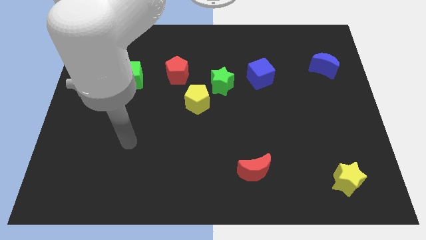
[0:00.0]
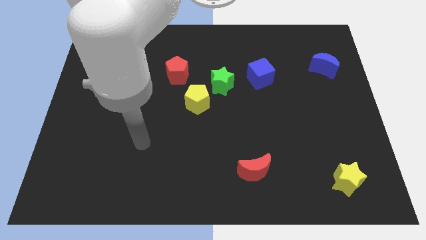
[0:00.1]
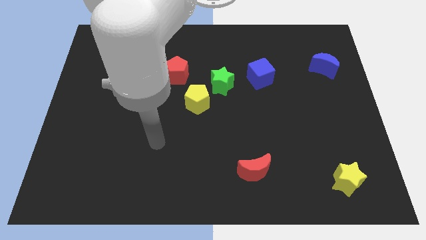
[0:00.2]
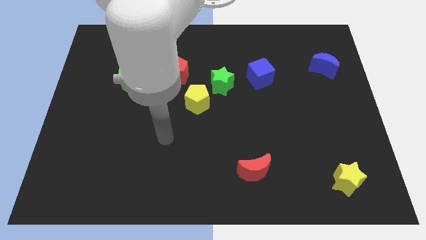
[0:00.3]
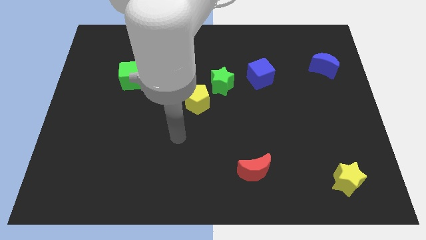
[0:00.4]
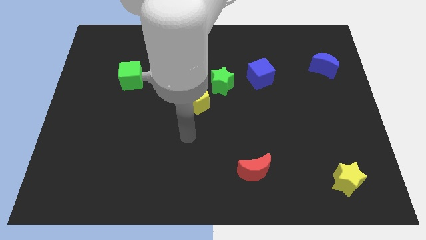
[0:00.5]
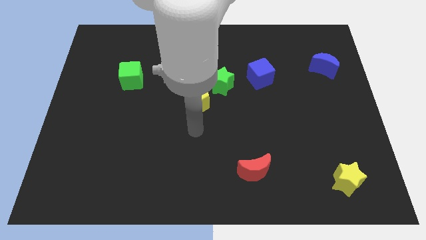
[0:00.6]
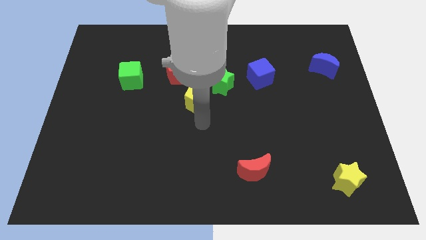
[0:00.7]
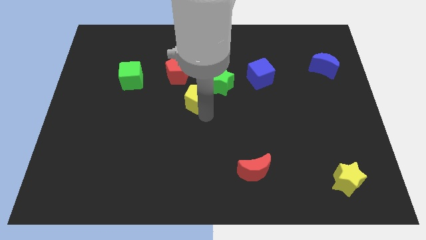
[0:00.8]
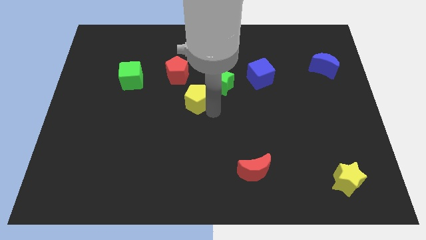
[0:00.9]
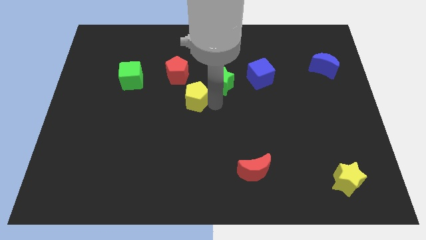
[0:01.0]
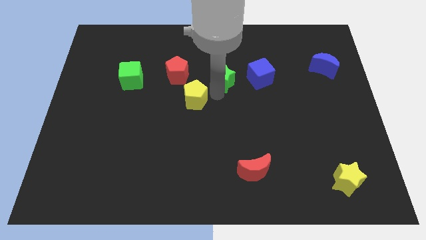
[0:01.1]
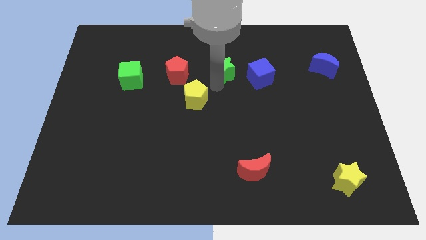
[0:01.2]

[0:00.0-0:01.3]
move the yellow pentagon away from the green star

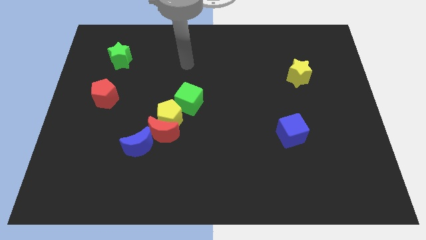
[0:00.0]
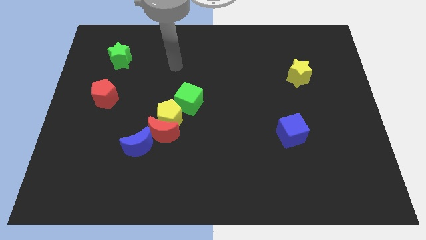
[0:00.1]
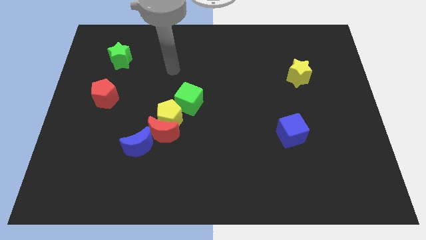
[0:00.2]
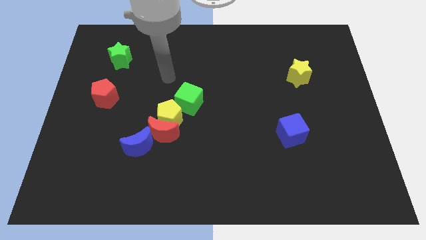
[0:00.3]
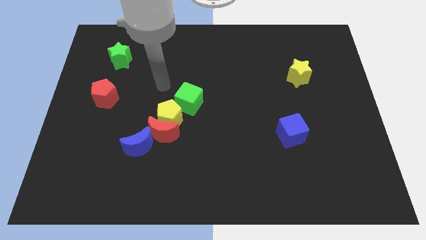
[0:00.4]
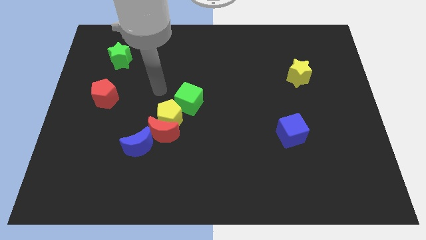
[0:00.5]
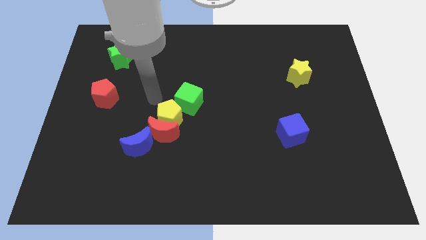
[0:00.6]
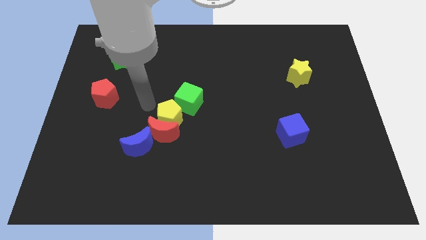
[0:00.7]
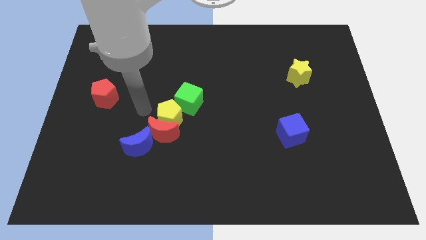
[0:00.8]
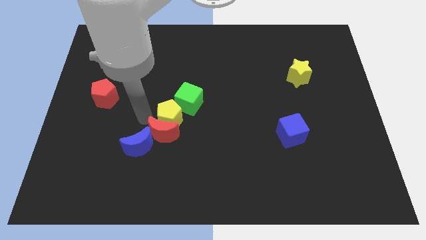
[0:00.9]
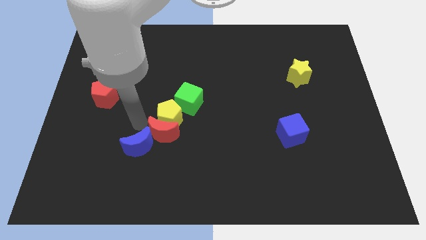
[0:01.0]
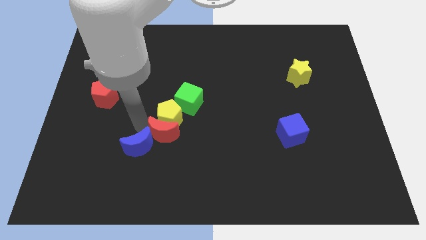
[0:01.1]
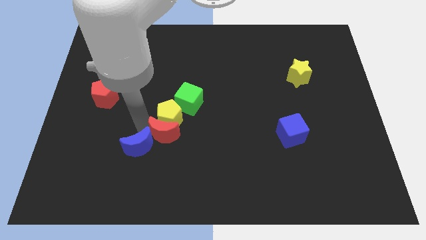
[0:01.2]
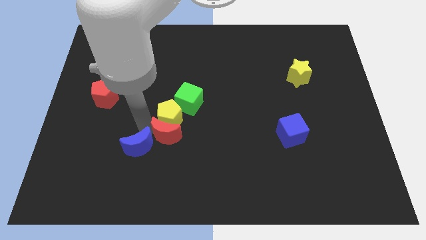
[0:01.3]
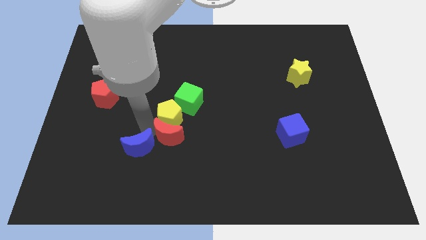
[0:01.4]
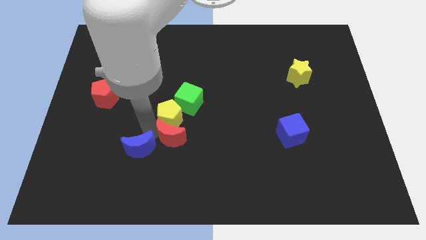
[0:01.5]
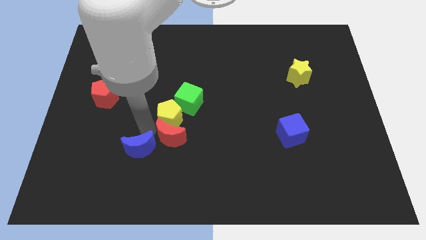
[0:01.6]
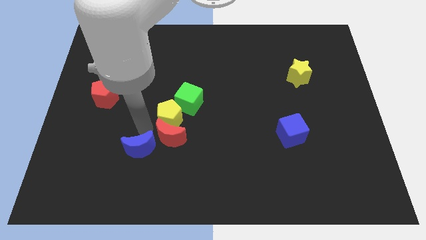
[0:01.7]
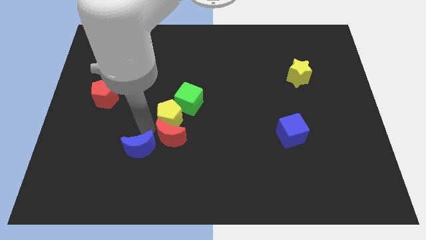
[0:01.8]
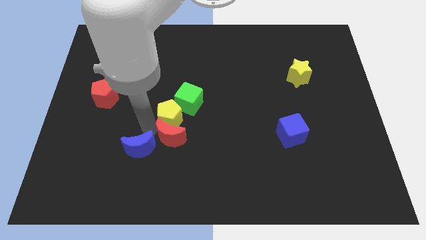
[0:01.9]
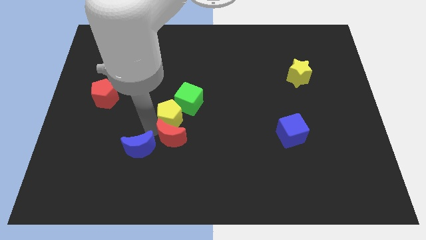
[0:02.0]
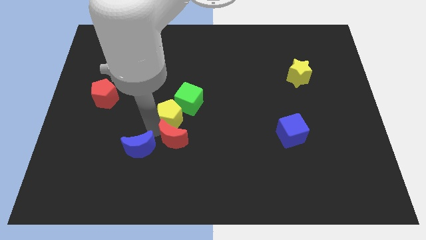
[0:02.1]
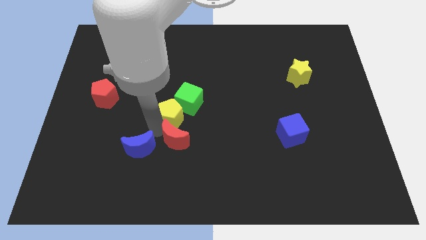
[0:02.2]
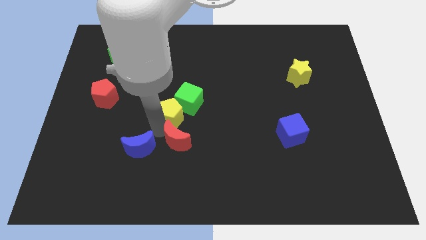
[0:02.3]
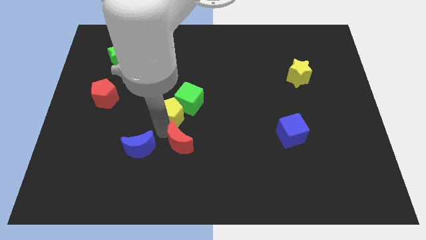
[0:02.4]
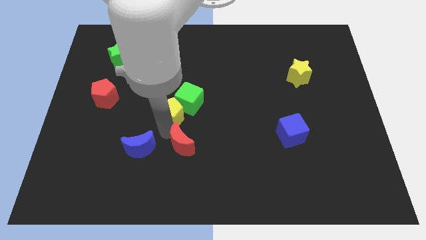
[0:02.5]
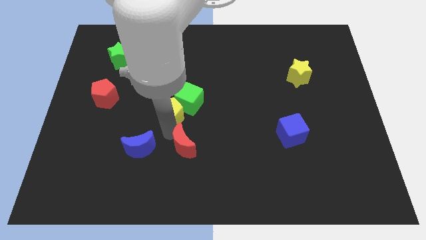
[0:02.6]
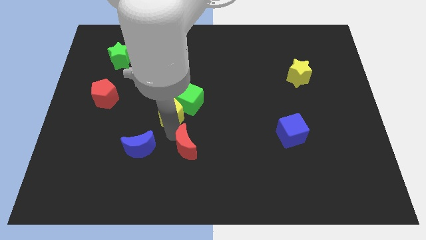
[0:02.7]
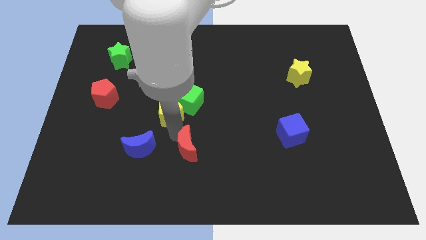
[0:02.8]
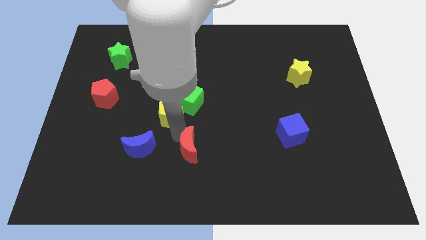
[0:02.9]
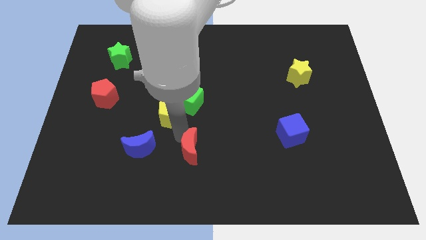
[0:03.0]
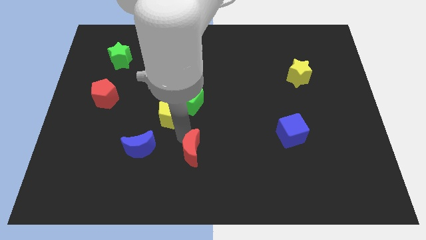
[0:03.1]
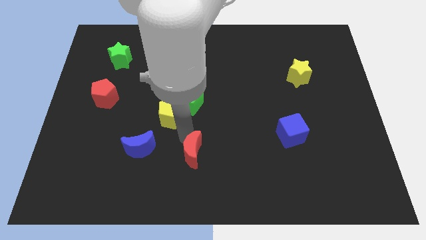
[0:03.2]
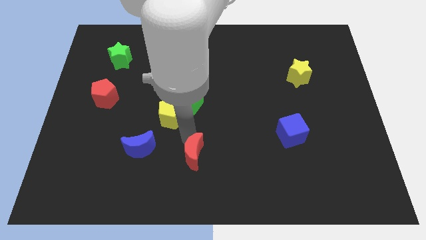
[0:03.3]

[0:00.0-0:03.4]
separate the red moon from the yellow pentagon and blue moon

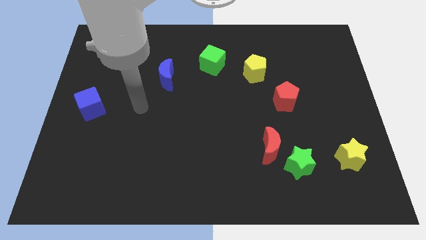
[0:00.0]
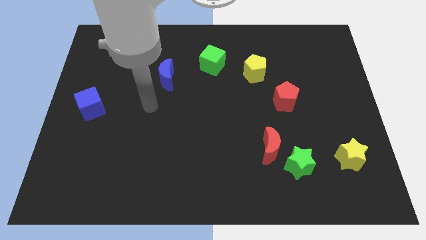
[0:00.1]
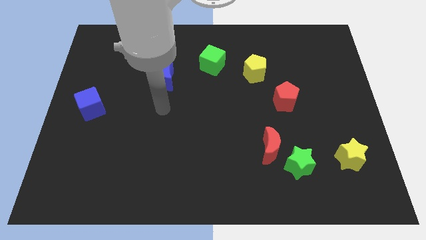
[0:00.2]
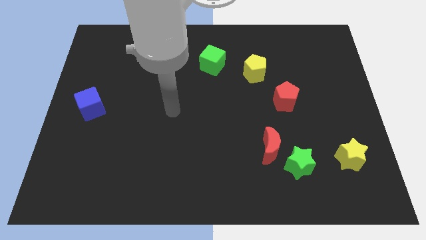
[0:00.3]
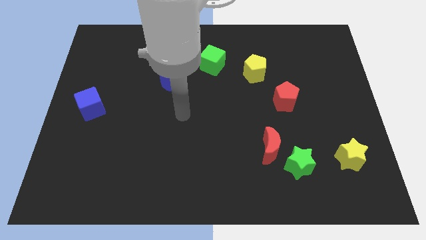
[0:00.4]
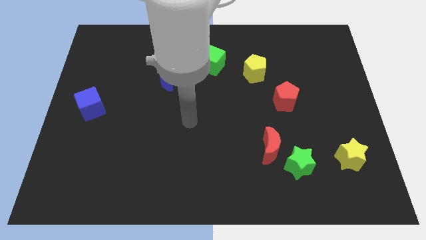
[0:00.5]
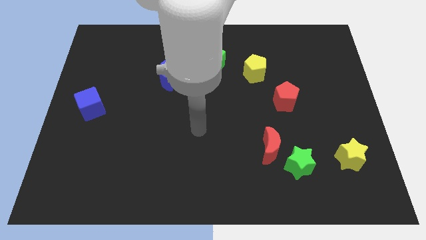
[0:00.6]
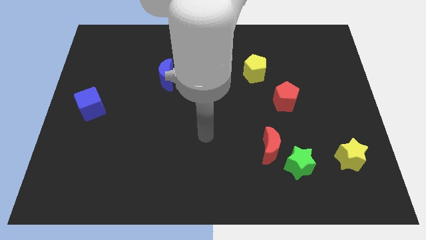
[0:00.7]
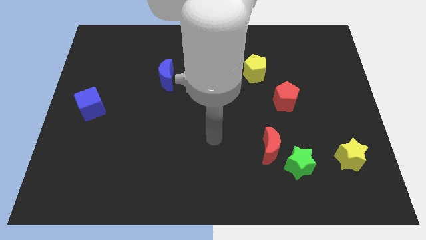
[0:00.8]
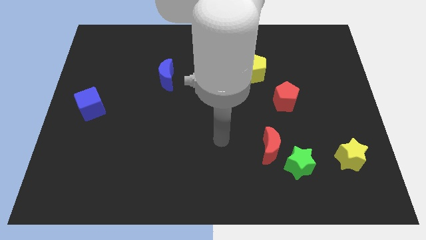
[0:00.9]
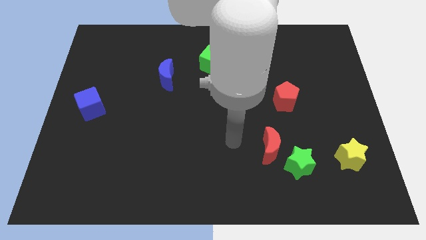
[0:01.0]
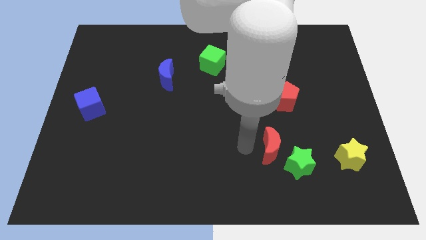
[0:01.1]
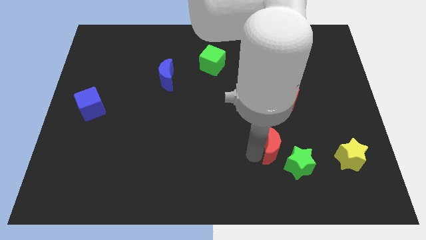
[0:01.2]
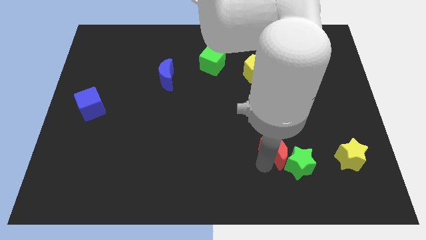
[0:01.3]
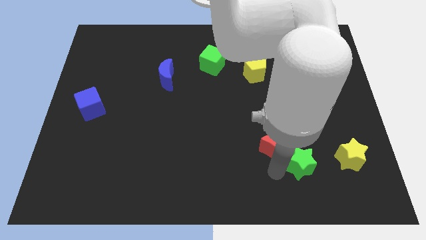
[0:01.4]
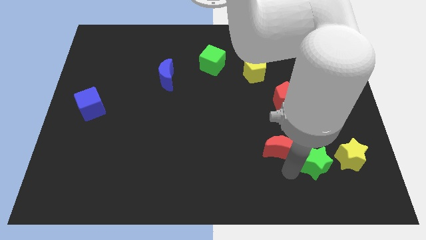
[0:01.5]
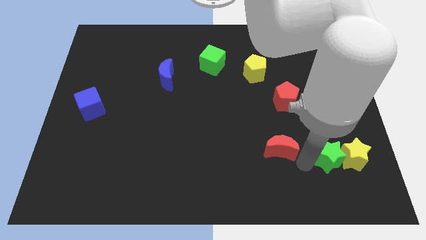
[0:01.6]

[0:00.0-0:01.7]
pull the red moon apart from the green star

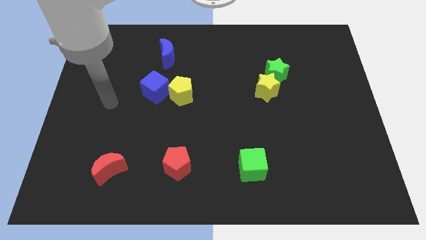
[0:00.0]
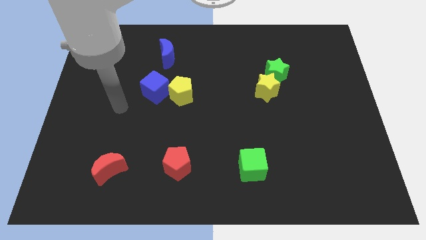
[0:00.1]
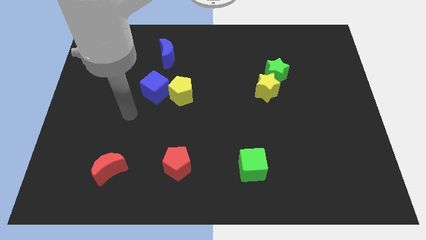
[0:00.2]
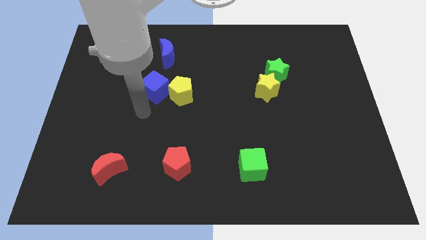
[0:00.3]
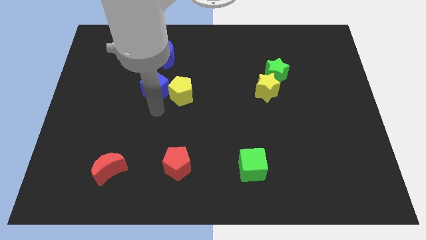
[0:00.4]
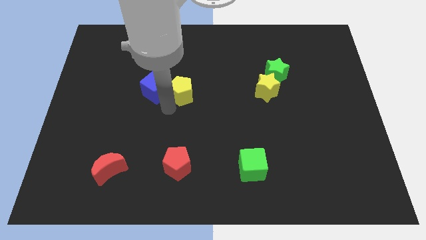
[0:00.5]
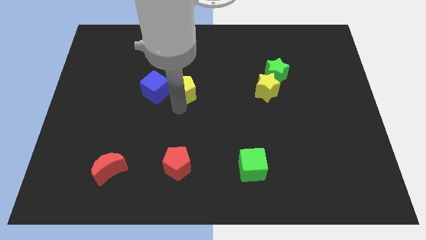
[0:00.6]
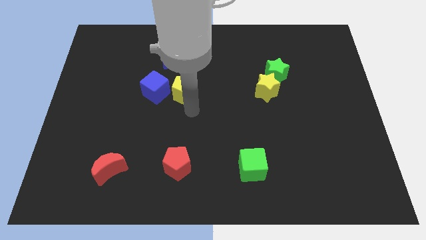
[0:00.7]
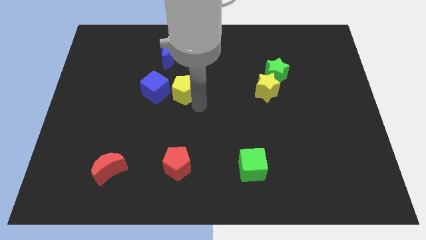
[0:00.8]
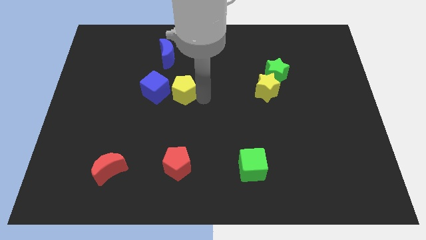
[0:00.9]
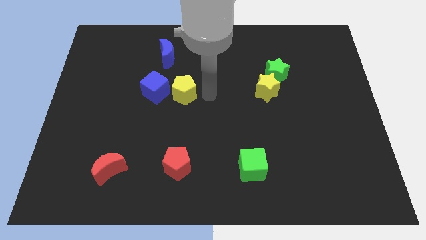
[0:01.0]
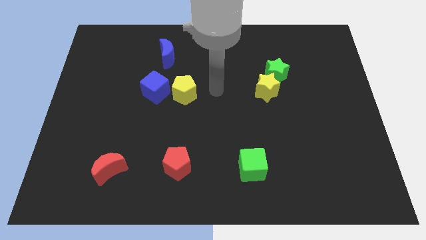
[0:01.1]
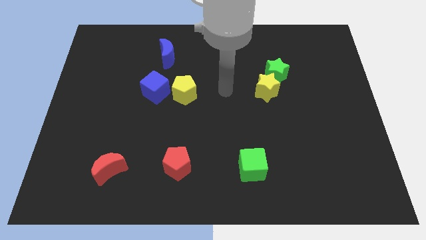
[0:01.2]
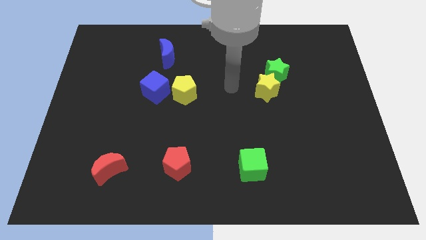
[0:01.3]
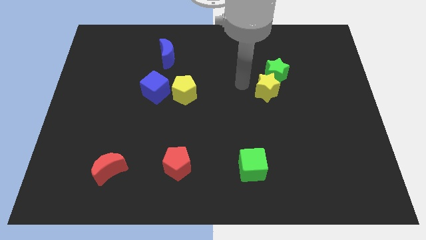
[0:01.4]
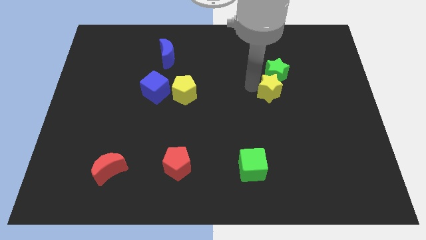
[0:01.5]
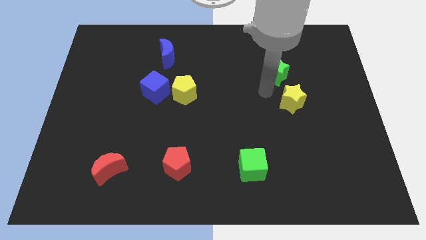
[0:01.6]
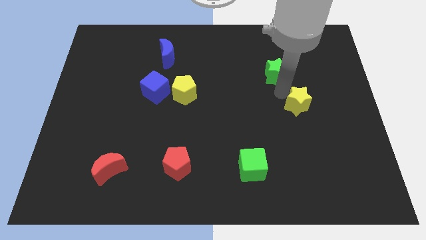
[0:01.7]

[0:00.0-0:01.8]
separate the green star from the yellow star

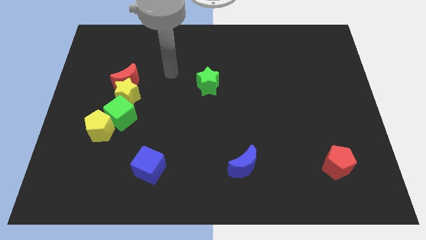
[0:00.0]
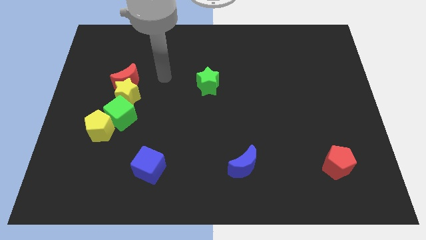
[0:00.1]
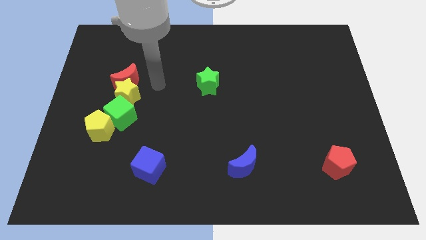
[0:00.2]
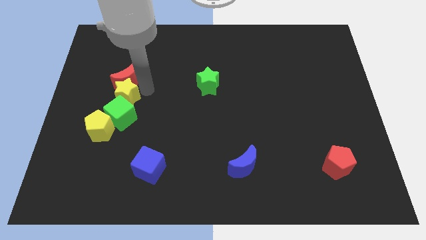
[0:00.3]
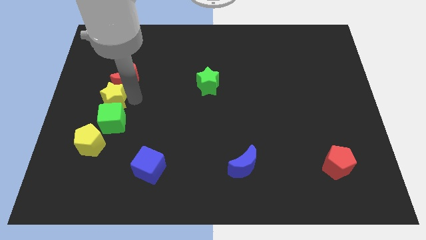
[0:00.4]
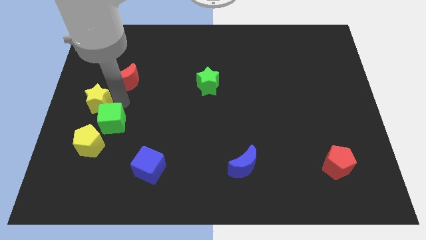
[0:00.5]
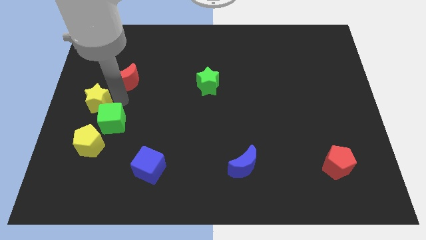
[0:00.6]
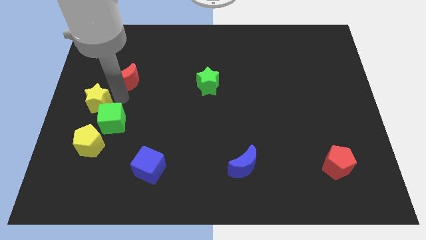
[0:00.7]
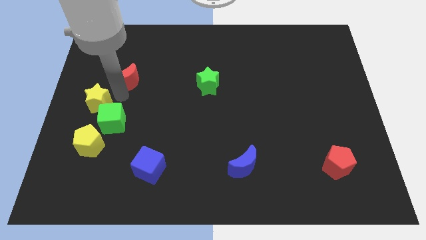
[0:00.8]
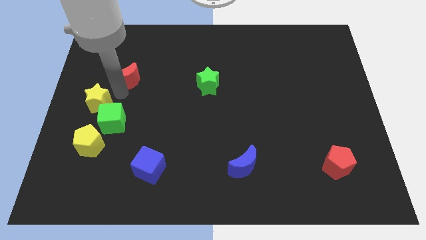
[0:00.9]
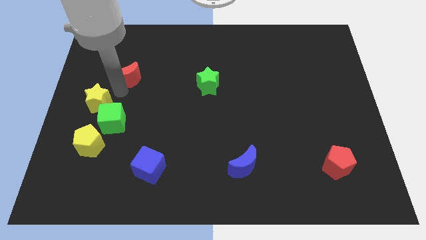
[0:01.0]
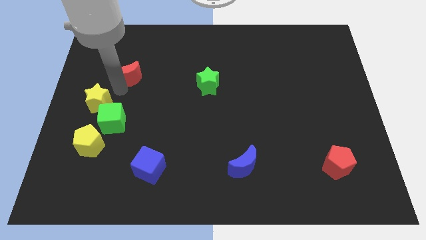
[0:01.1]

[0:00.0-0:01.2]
pull the red moon apart from the yellow star
